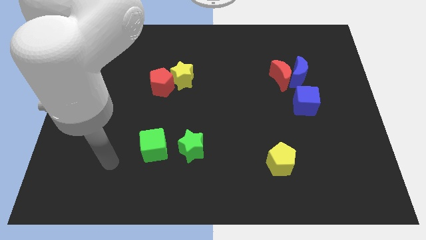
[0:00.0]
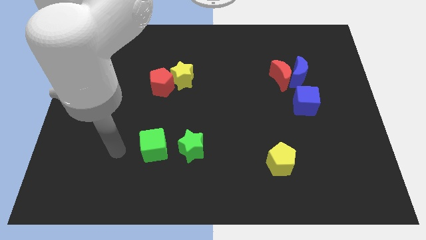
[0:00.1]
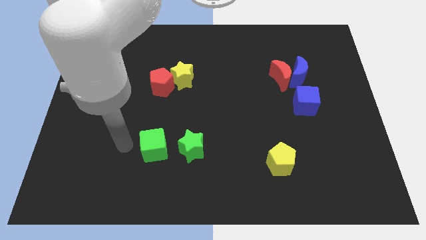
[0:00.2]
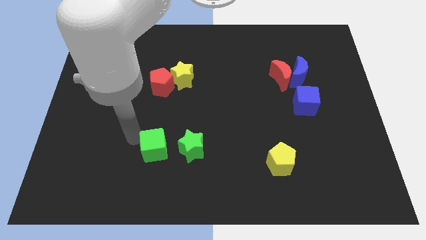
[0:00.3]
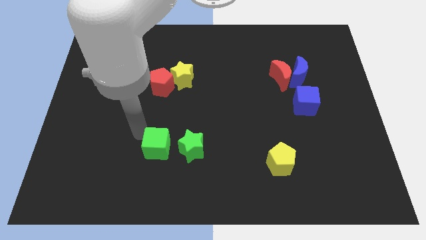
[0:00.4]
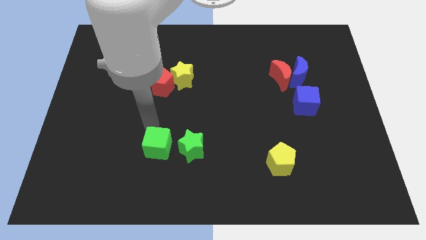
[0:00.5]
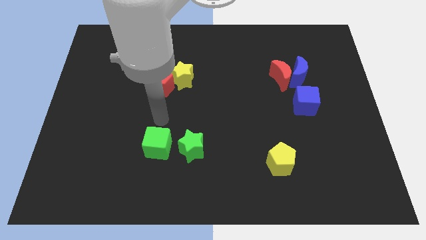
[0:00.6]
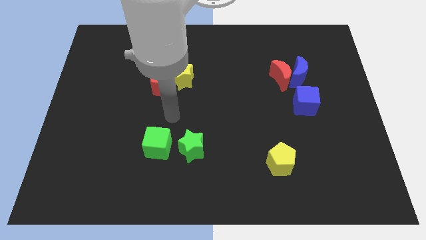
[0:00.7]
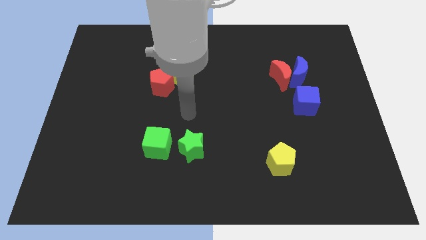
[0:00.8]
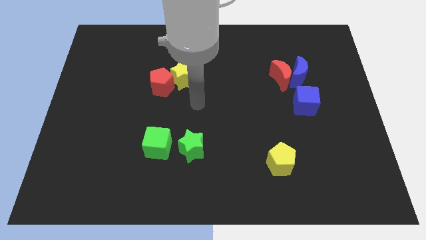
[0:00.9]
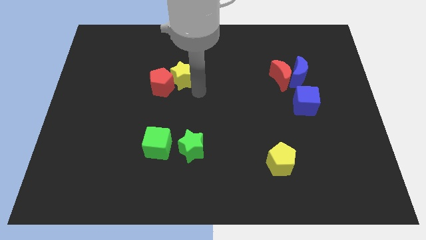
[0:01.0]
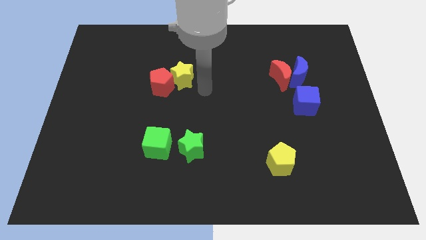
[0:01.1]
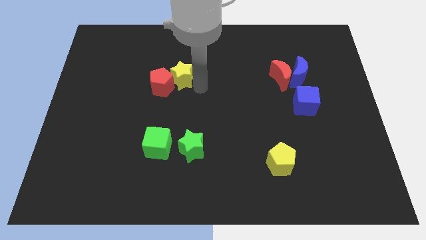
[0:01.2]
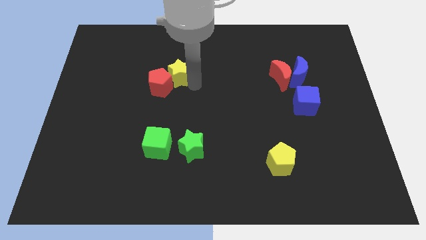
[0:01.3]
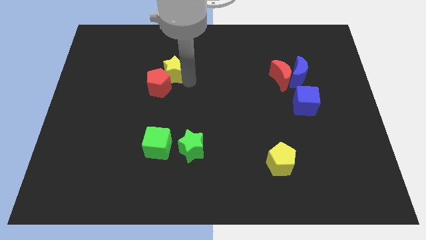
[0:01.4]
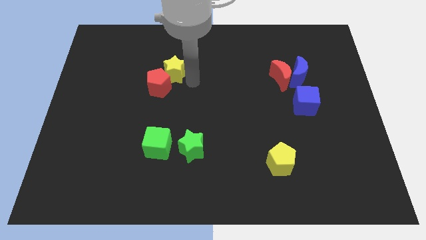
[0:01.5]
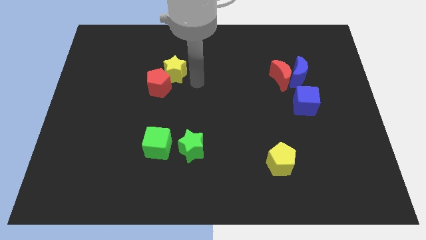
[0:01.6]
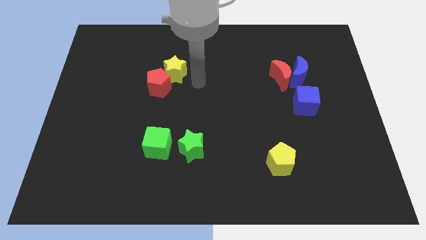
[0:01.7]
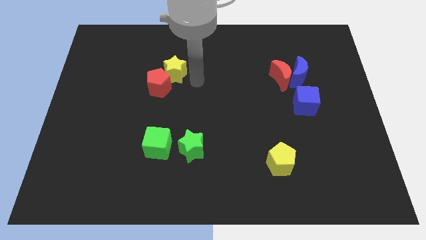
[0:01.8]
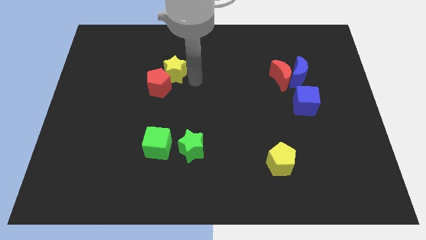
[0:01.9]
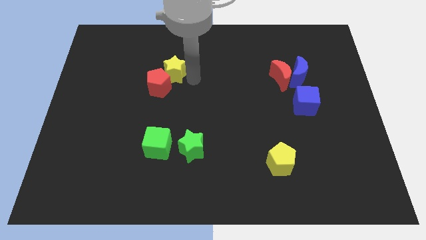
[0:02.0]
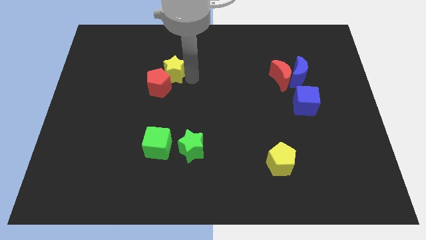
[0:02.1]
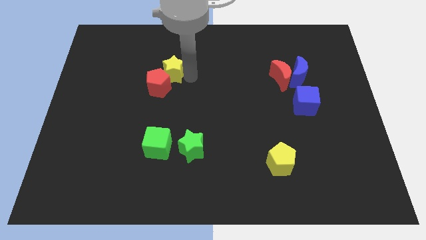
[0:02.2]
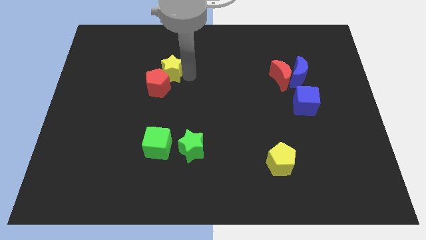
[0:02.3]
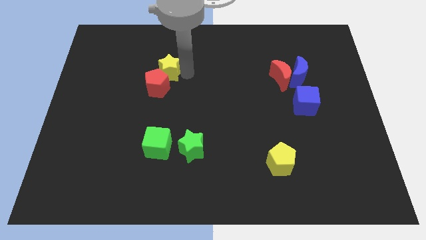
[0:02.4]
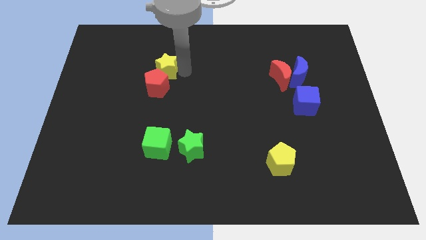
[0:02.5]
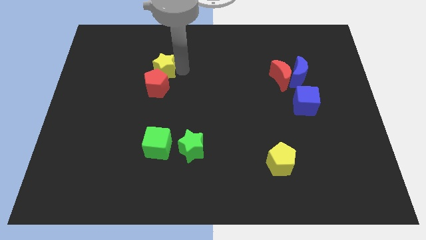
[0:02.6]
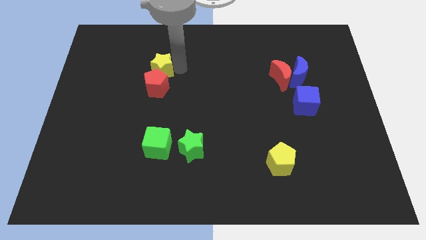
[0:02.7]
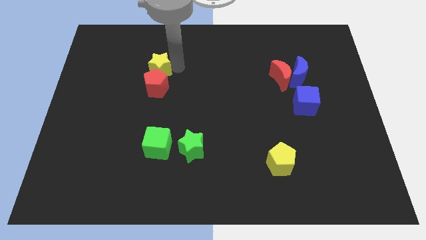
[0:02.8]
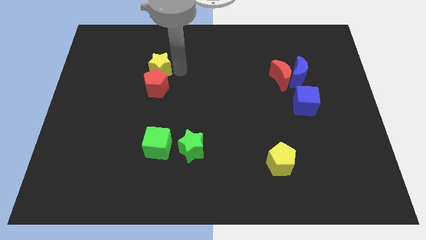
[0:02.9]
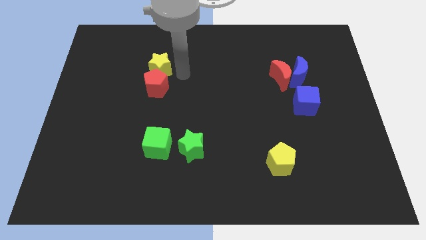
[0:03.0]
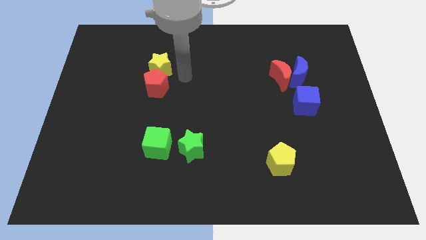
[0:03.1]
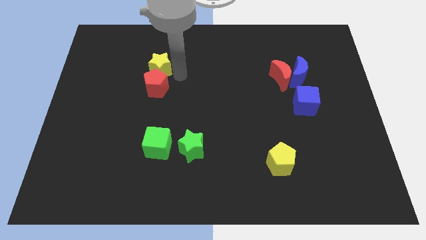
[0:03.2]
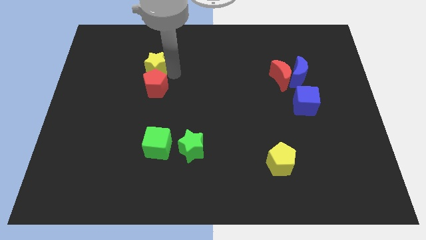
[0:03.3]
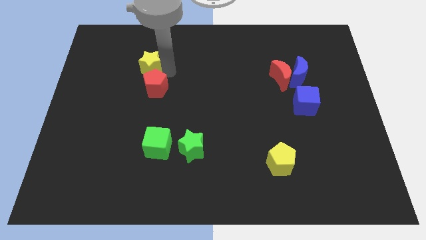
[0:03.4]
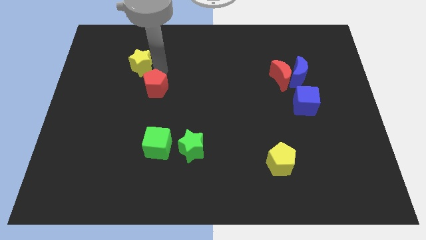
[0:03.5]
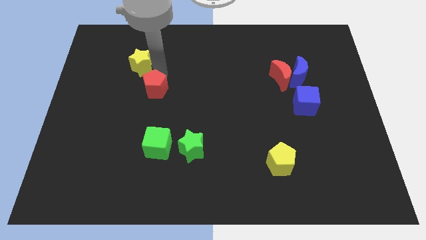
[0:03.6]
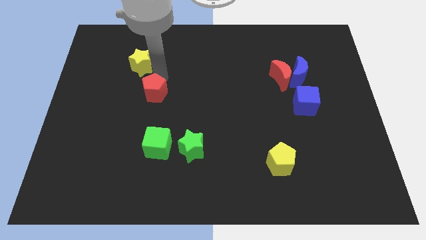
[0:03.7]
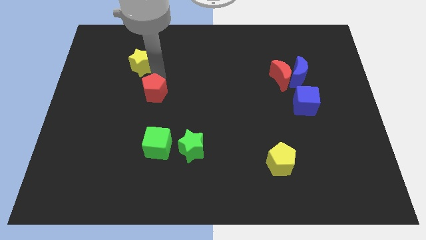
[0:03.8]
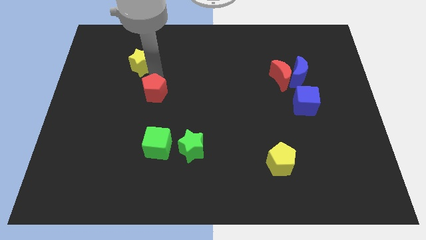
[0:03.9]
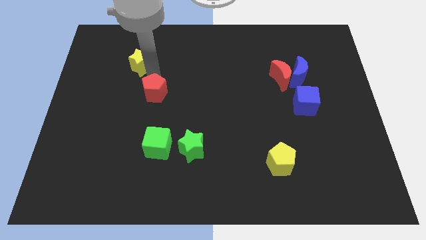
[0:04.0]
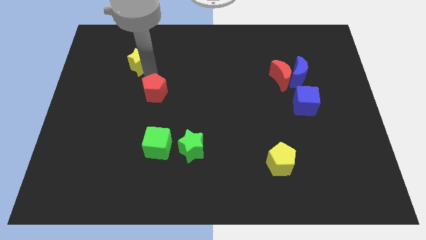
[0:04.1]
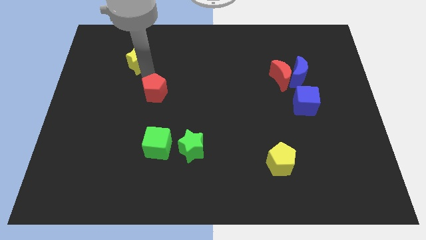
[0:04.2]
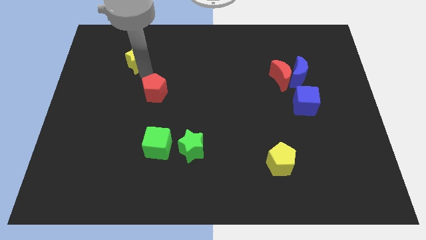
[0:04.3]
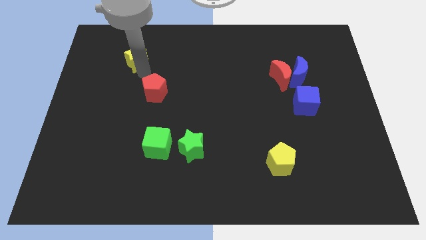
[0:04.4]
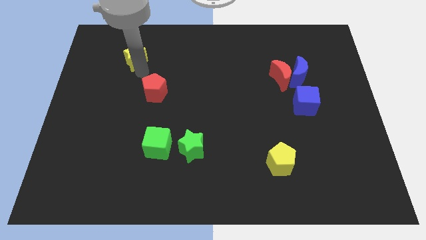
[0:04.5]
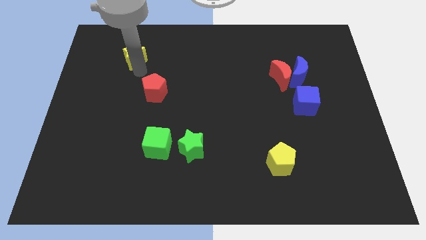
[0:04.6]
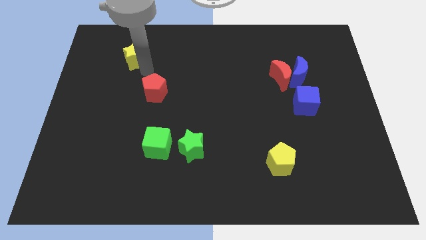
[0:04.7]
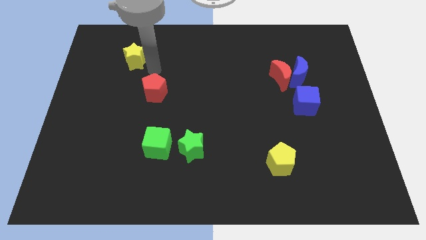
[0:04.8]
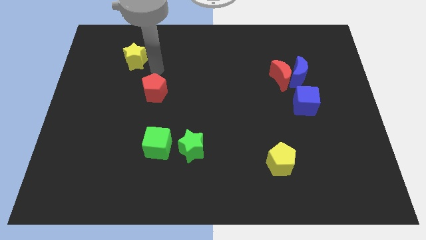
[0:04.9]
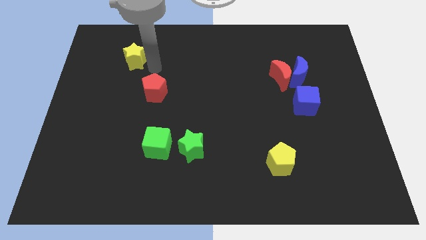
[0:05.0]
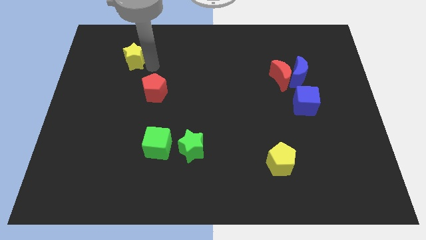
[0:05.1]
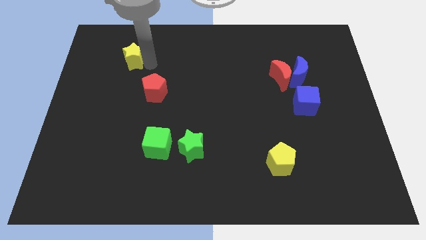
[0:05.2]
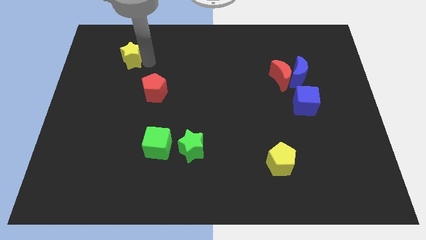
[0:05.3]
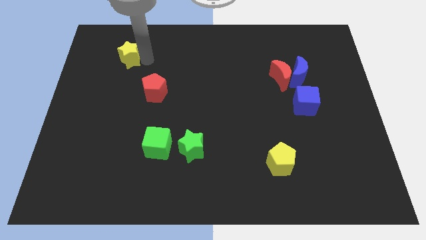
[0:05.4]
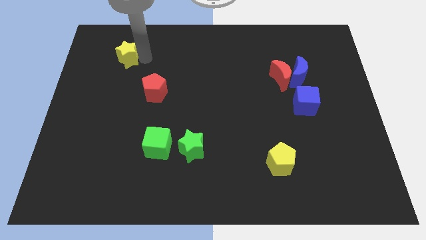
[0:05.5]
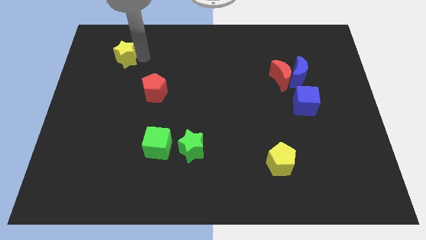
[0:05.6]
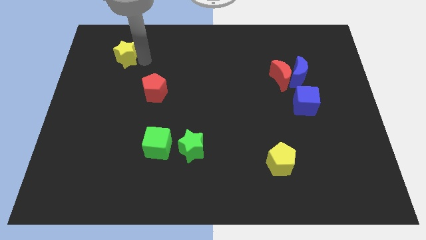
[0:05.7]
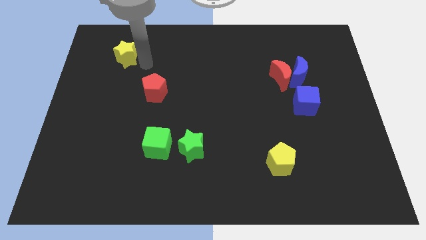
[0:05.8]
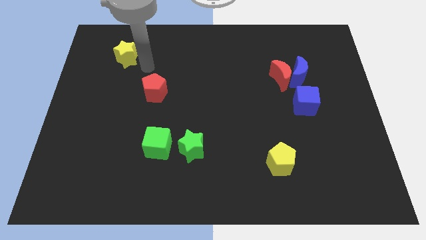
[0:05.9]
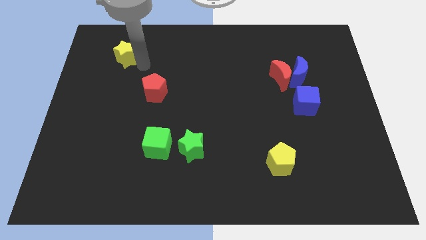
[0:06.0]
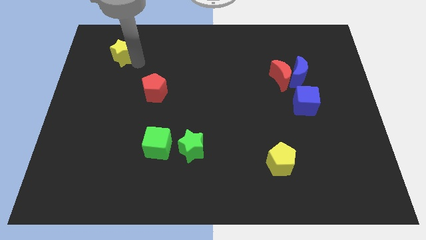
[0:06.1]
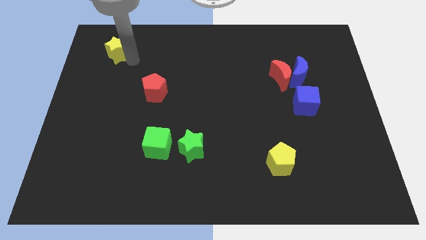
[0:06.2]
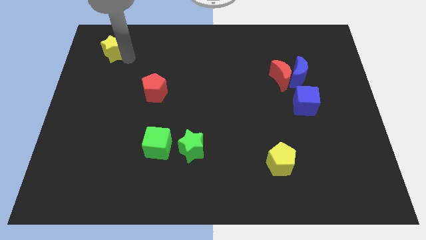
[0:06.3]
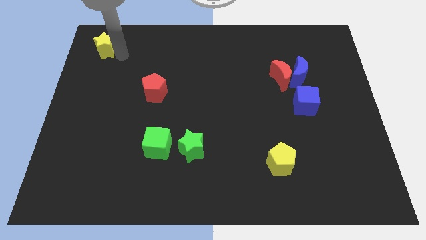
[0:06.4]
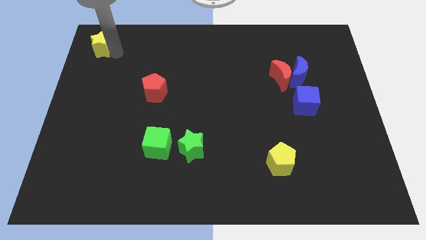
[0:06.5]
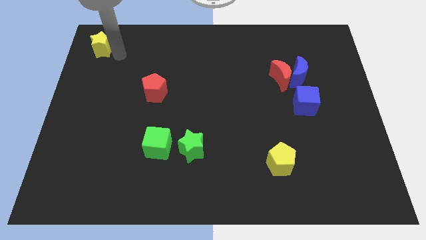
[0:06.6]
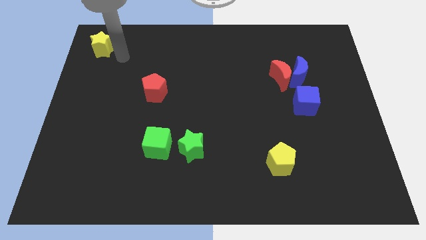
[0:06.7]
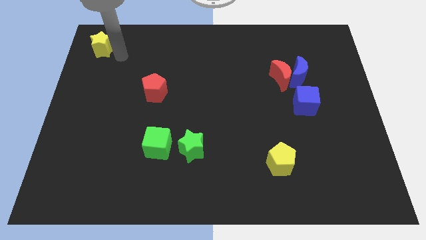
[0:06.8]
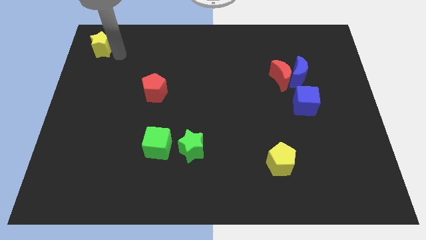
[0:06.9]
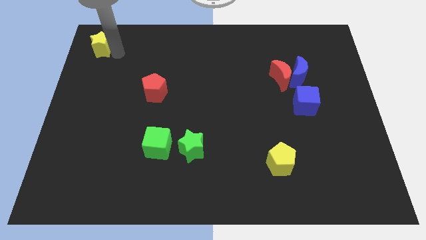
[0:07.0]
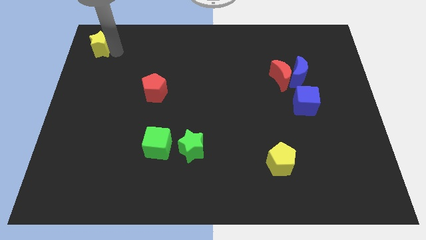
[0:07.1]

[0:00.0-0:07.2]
move the yellow star to the top left of the board
